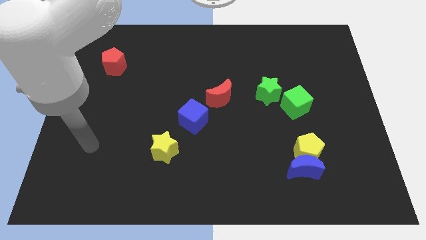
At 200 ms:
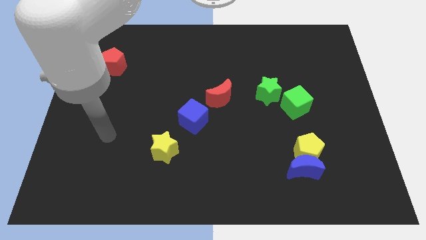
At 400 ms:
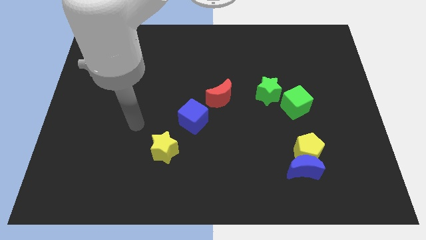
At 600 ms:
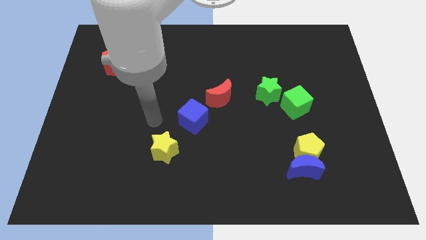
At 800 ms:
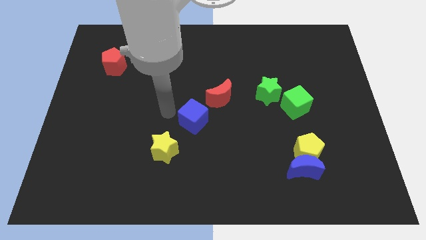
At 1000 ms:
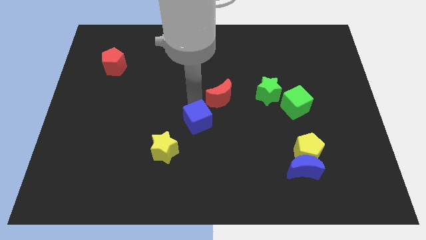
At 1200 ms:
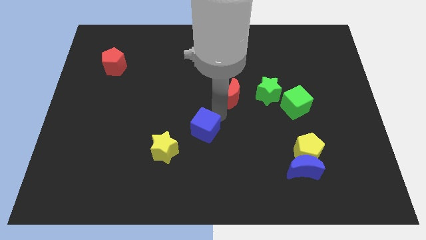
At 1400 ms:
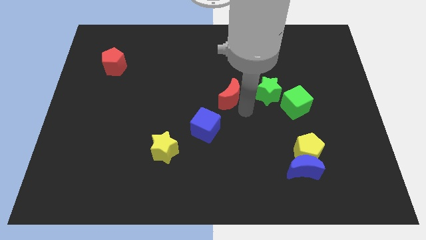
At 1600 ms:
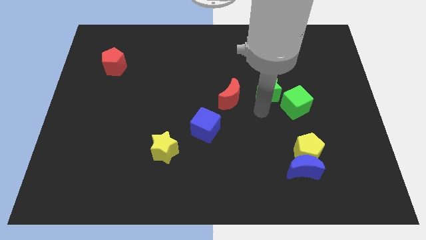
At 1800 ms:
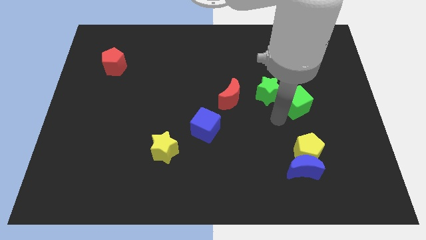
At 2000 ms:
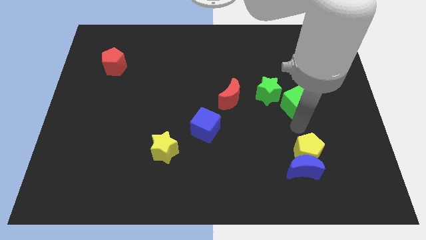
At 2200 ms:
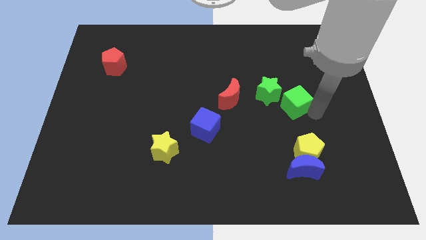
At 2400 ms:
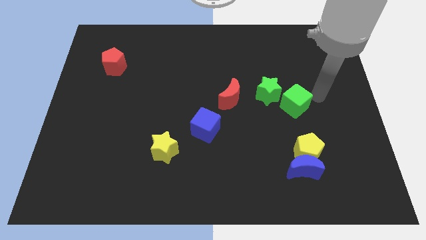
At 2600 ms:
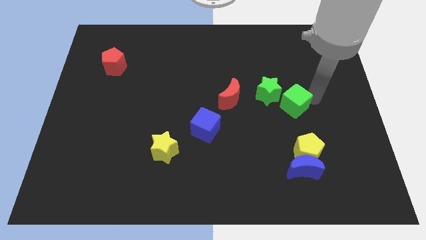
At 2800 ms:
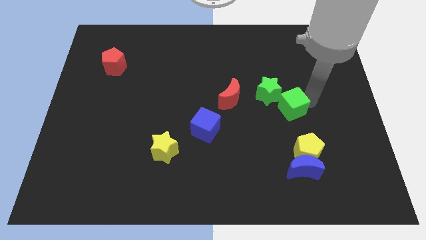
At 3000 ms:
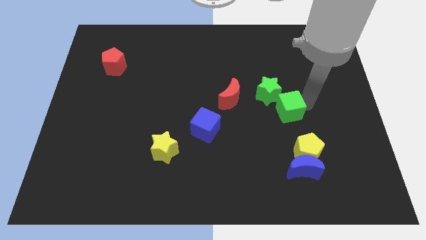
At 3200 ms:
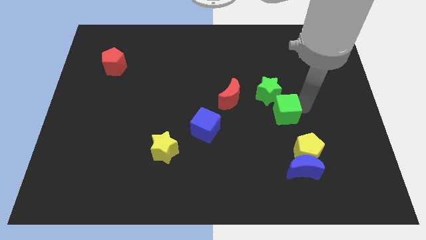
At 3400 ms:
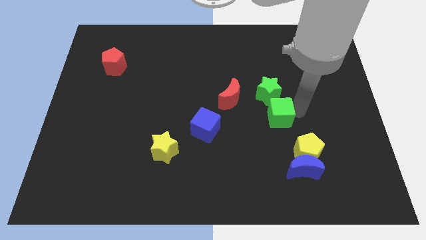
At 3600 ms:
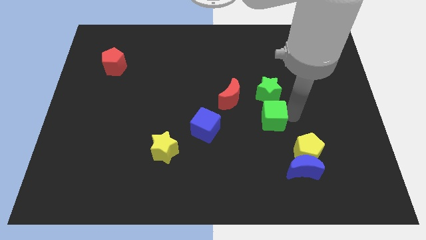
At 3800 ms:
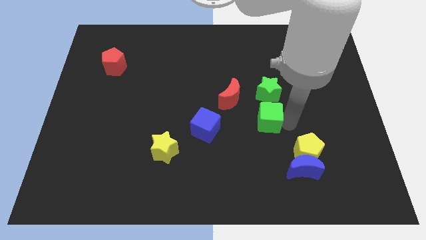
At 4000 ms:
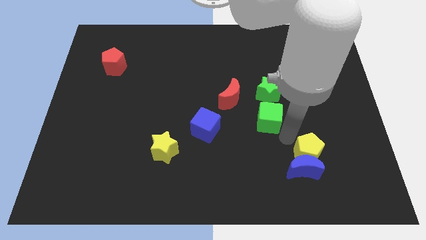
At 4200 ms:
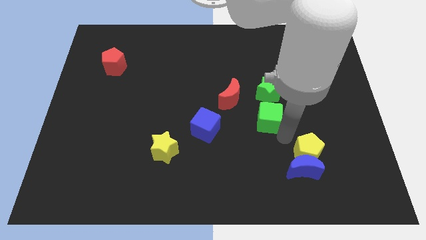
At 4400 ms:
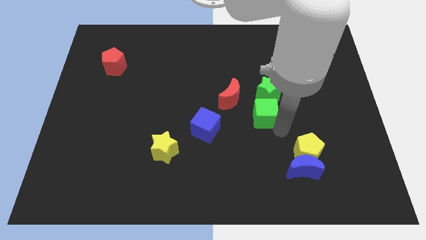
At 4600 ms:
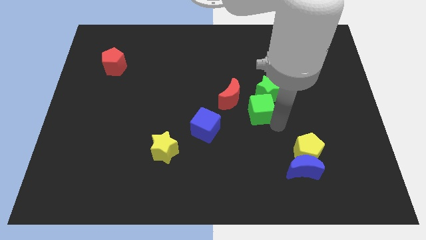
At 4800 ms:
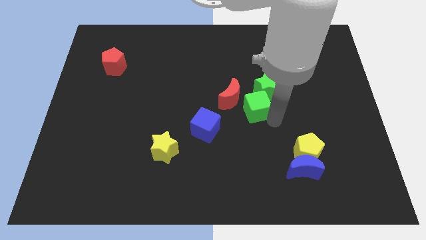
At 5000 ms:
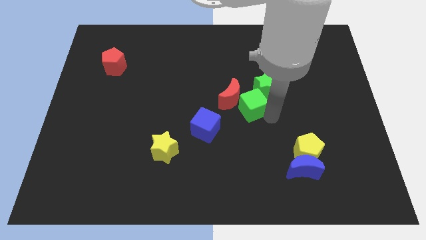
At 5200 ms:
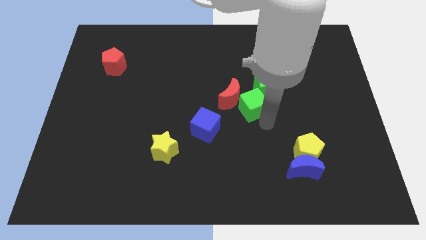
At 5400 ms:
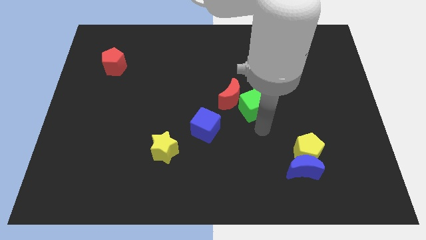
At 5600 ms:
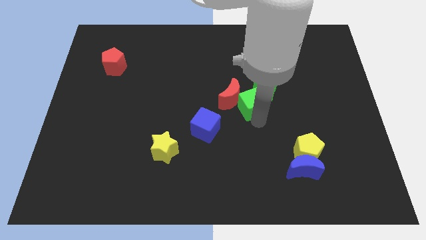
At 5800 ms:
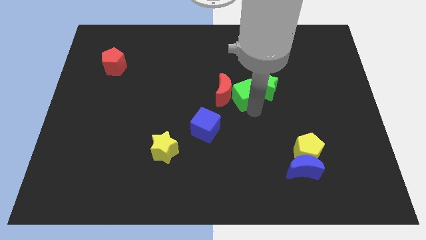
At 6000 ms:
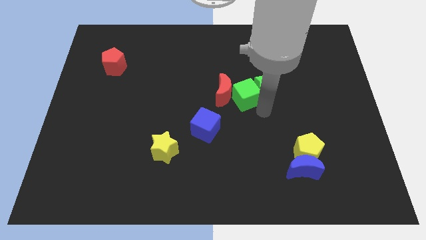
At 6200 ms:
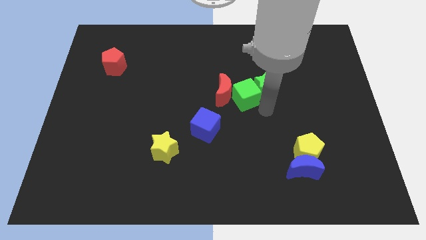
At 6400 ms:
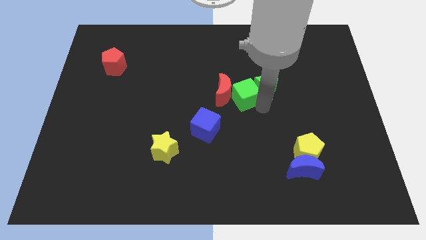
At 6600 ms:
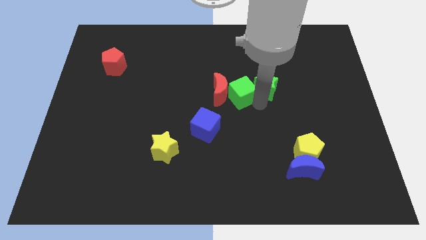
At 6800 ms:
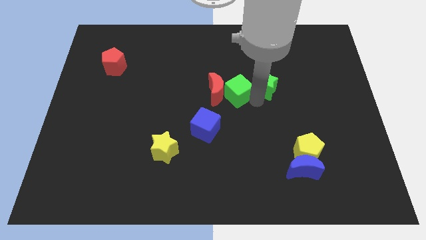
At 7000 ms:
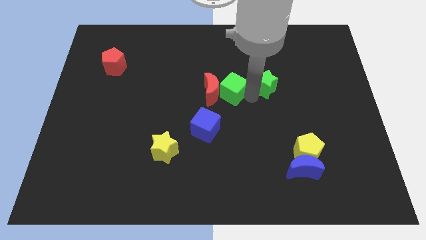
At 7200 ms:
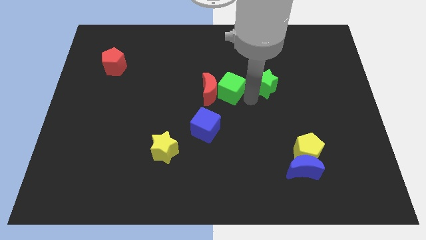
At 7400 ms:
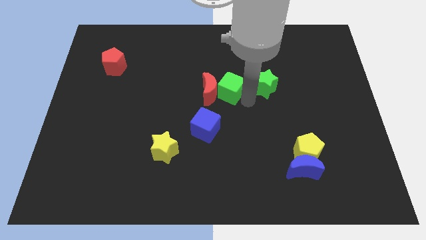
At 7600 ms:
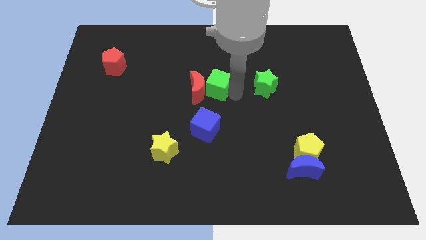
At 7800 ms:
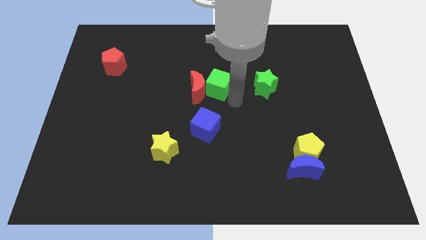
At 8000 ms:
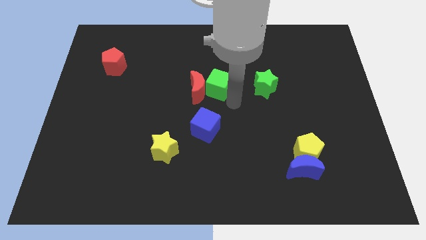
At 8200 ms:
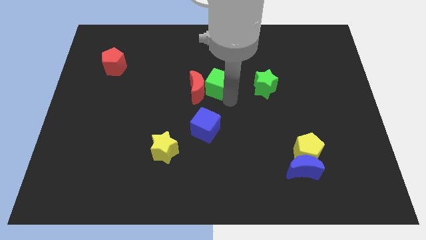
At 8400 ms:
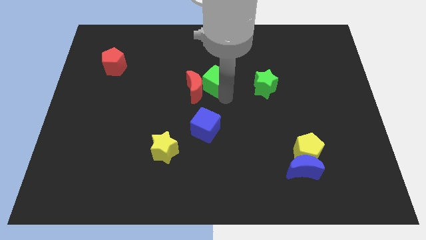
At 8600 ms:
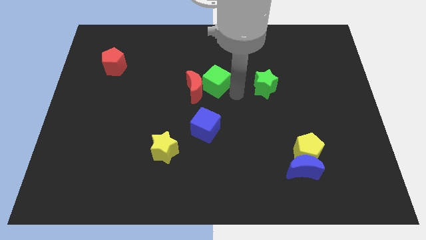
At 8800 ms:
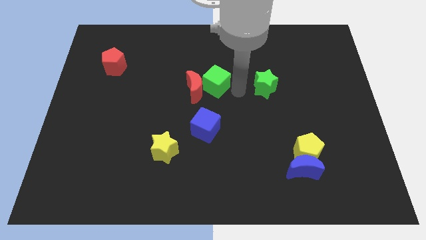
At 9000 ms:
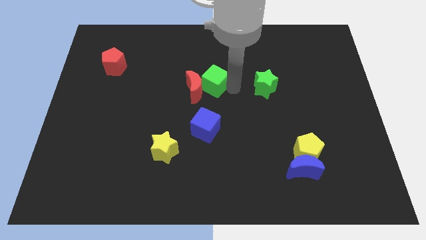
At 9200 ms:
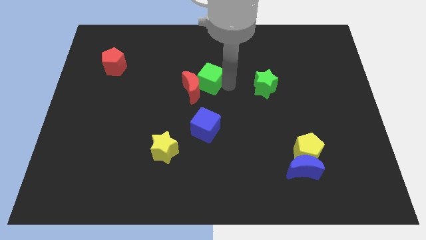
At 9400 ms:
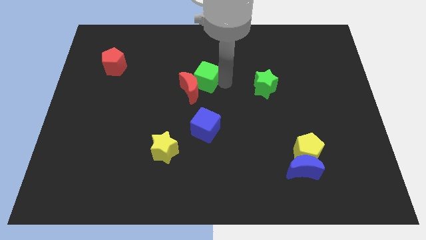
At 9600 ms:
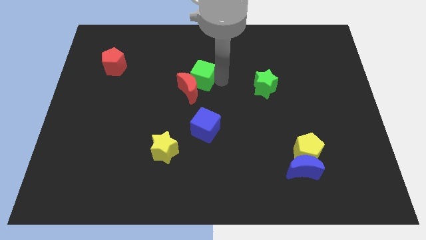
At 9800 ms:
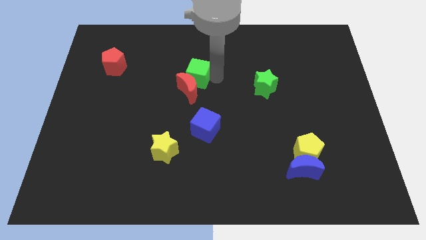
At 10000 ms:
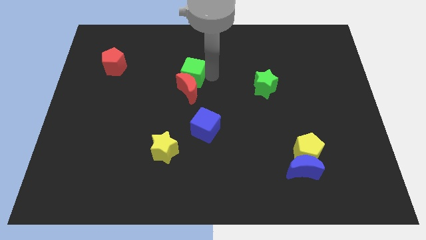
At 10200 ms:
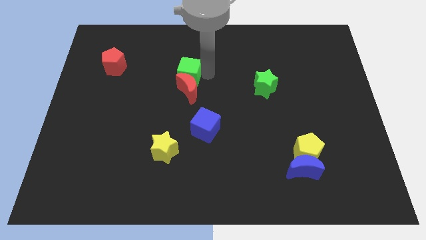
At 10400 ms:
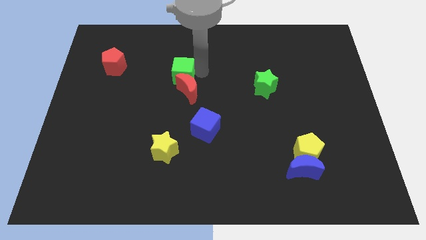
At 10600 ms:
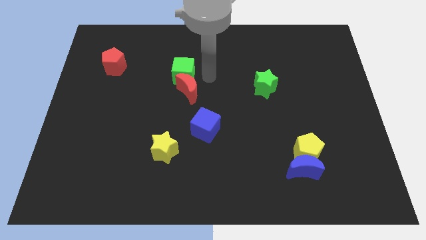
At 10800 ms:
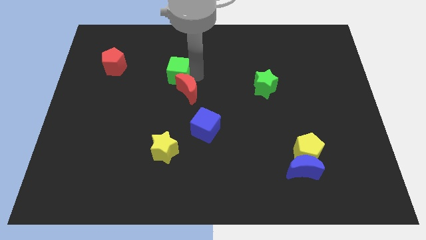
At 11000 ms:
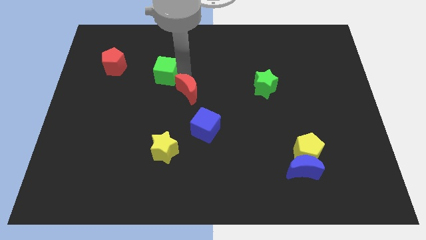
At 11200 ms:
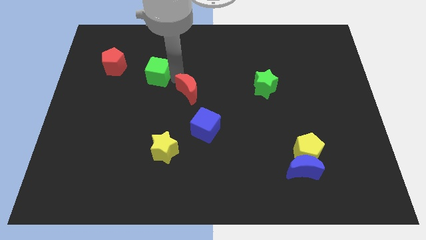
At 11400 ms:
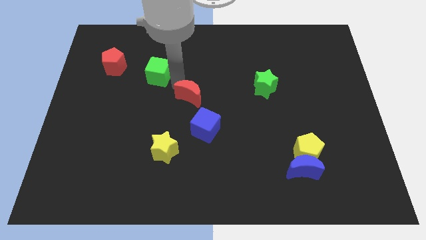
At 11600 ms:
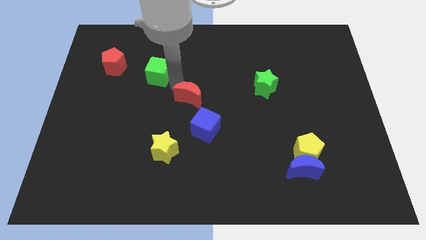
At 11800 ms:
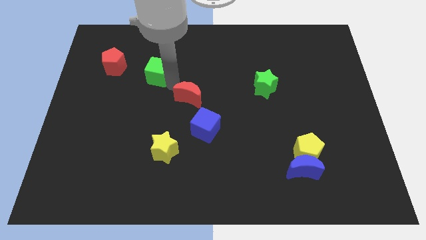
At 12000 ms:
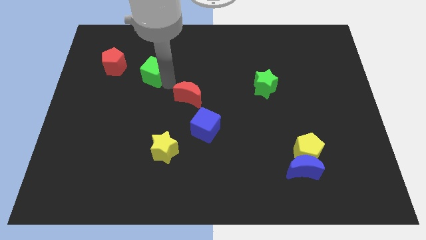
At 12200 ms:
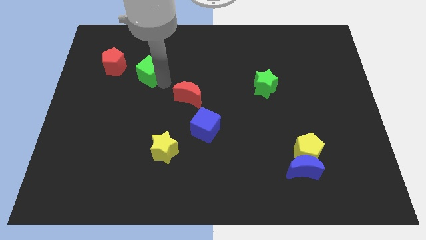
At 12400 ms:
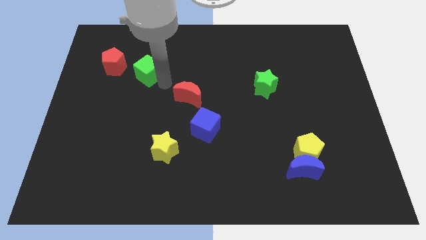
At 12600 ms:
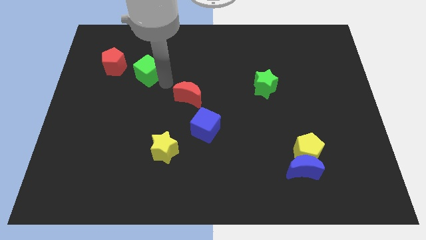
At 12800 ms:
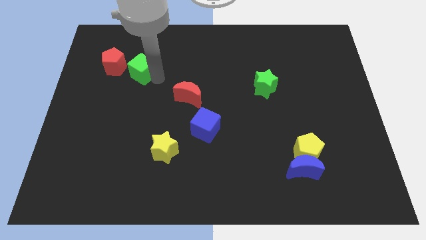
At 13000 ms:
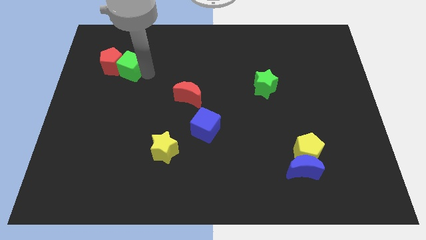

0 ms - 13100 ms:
put the green cube next to the red pentagon
